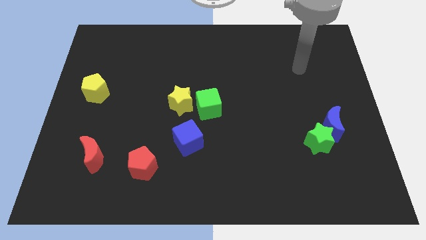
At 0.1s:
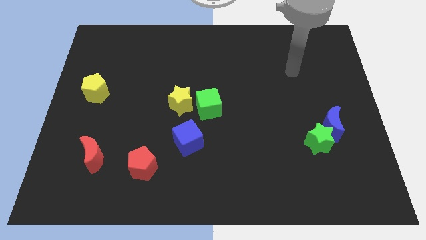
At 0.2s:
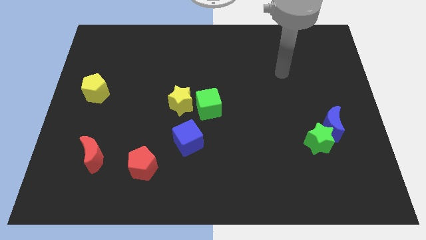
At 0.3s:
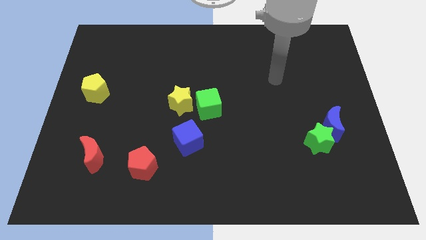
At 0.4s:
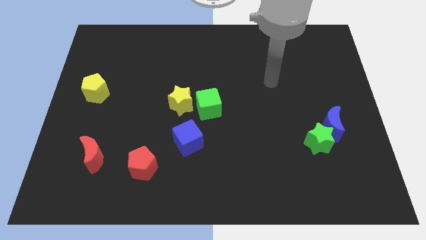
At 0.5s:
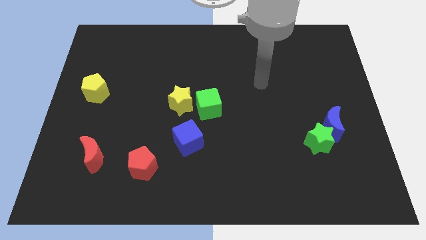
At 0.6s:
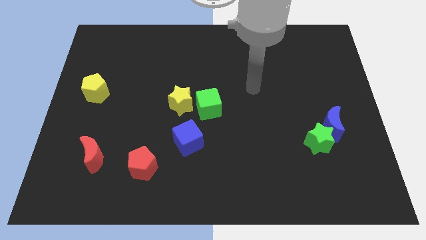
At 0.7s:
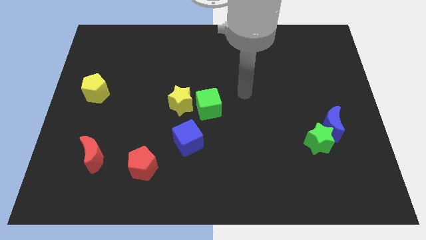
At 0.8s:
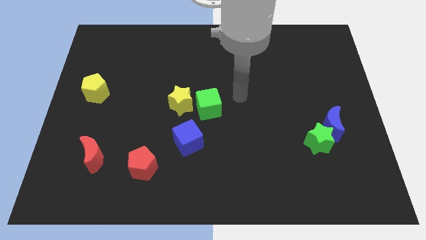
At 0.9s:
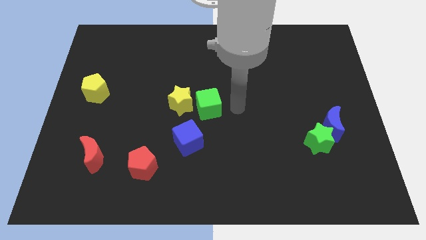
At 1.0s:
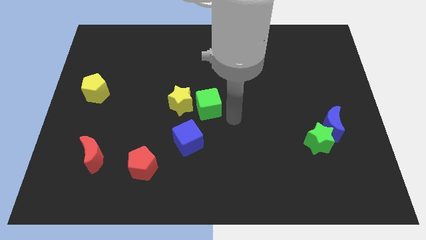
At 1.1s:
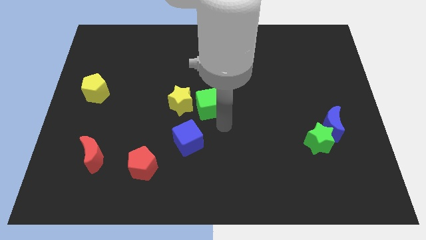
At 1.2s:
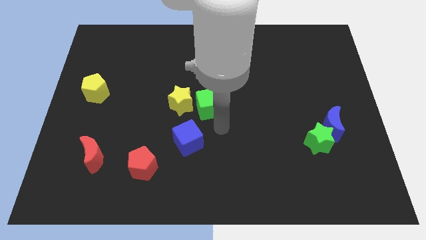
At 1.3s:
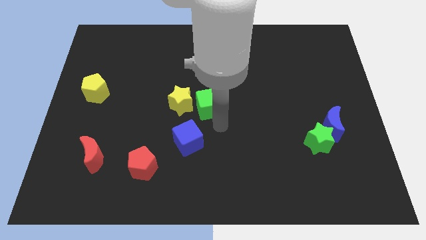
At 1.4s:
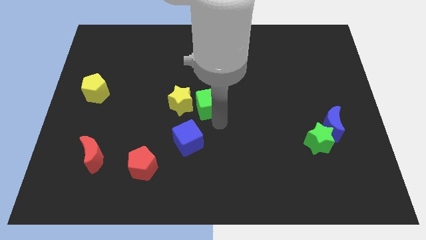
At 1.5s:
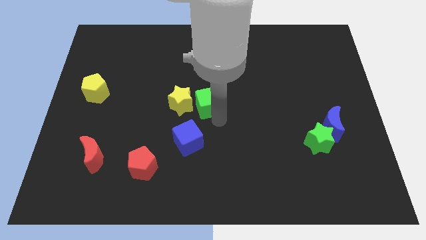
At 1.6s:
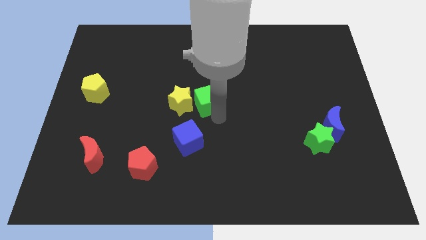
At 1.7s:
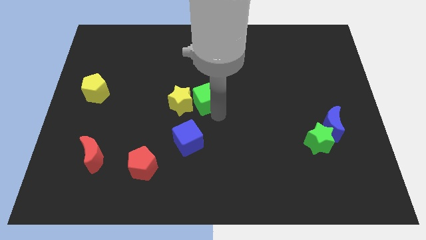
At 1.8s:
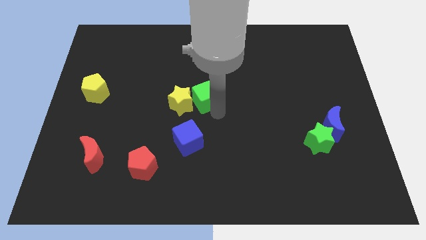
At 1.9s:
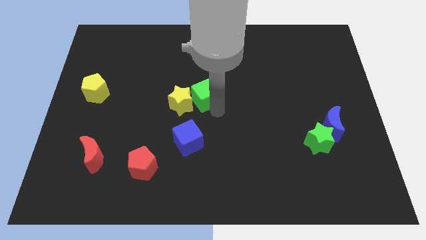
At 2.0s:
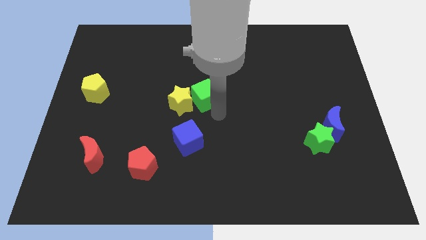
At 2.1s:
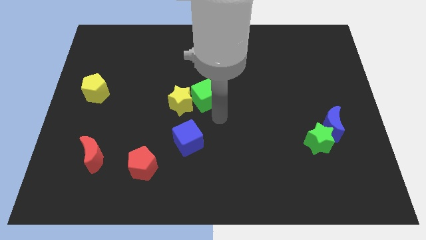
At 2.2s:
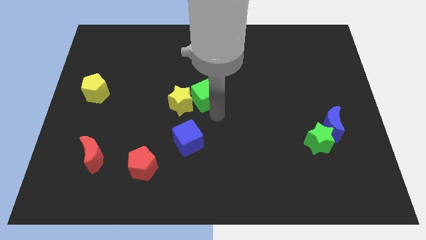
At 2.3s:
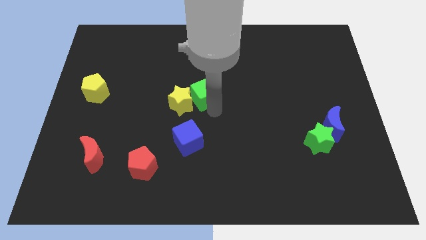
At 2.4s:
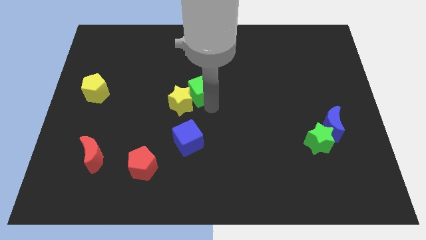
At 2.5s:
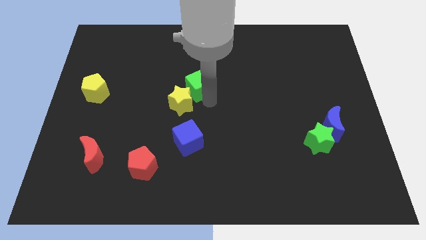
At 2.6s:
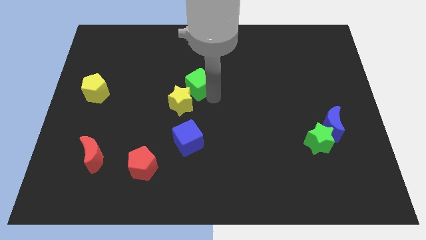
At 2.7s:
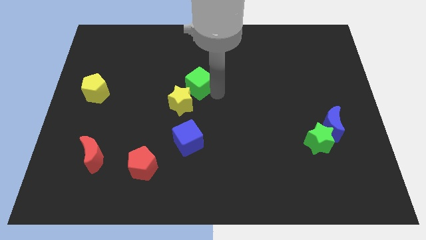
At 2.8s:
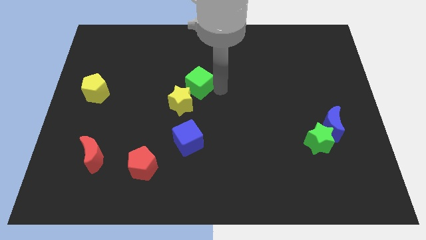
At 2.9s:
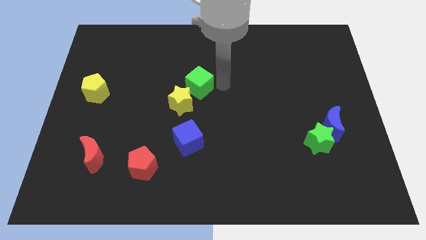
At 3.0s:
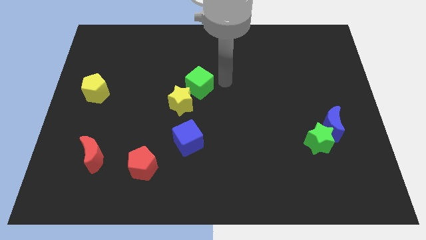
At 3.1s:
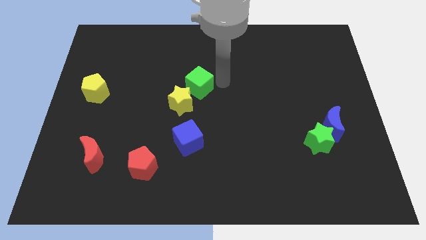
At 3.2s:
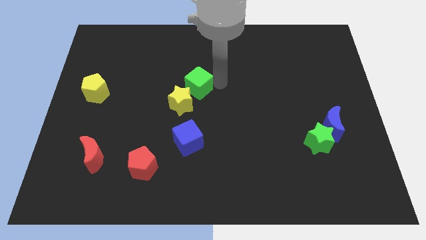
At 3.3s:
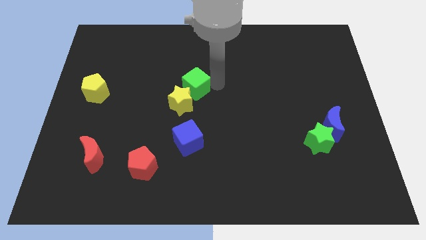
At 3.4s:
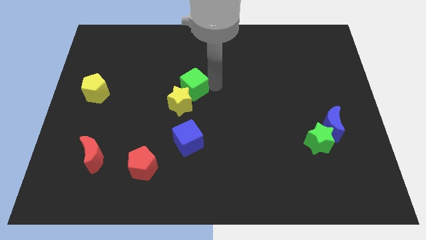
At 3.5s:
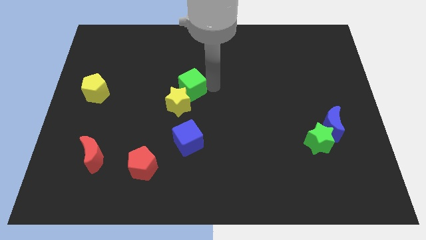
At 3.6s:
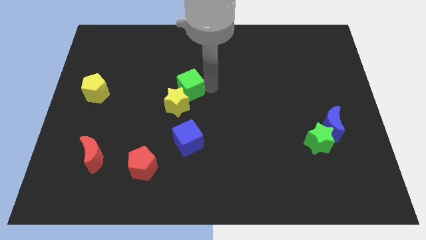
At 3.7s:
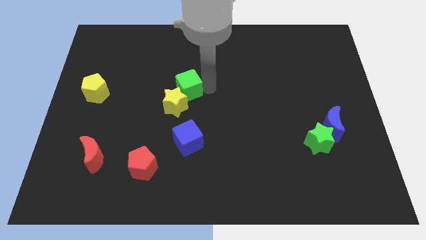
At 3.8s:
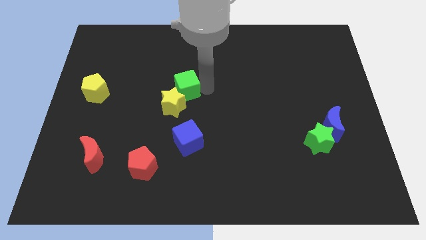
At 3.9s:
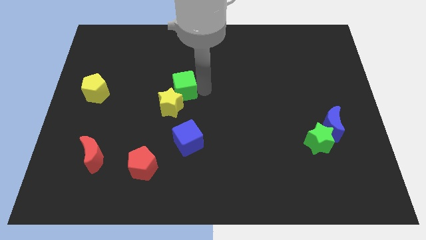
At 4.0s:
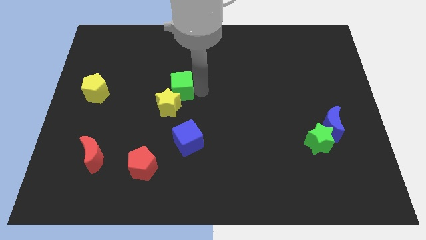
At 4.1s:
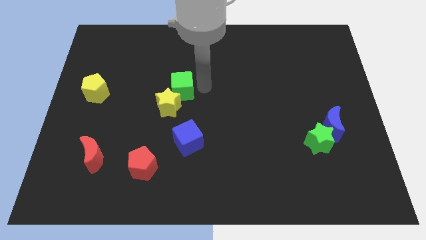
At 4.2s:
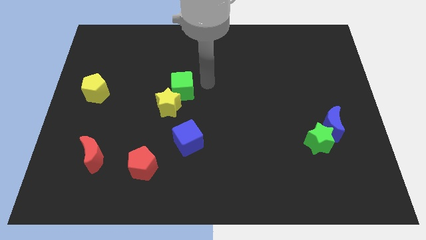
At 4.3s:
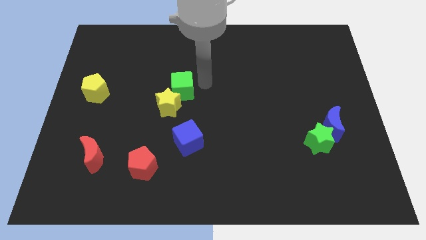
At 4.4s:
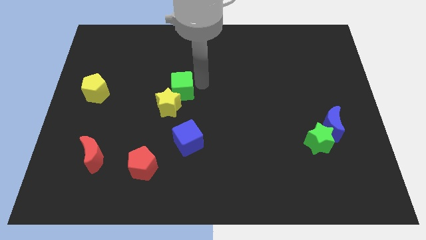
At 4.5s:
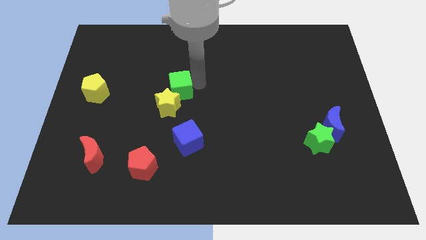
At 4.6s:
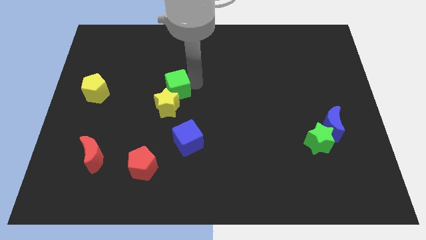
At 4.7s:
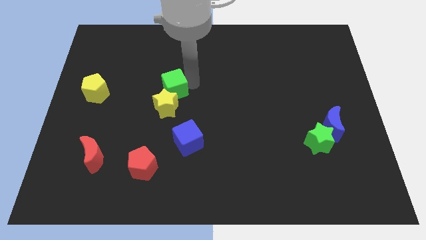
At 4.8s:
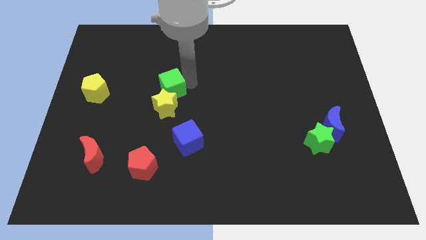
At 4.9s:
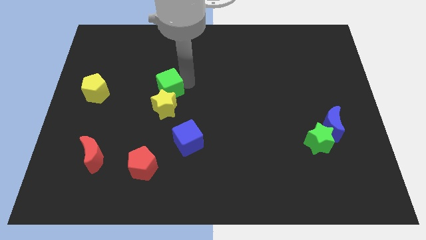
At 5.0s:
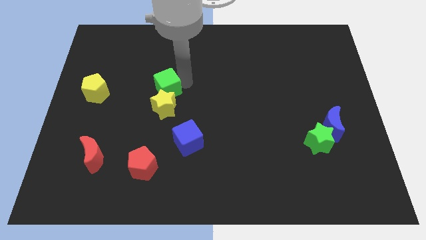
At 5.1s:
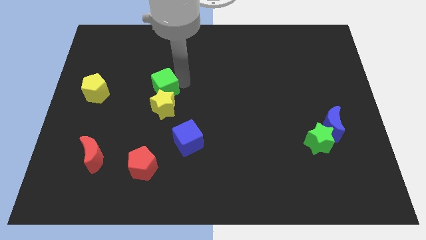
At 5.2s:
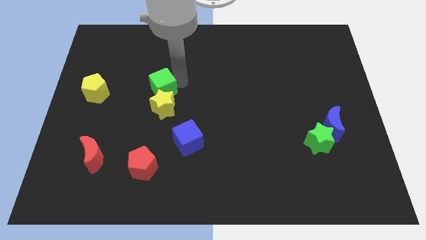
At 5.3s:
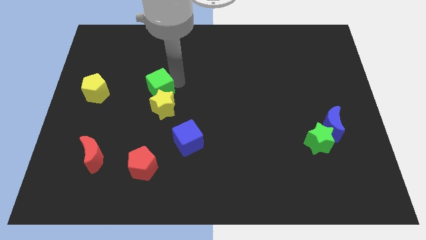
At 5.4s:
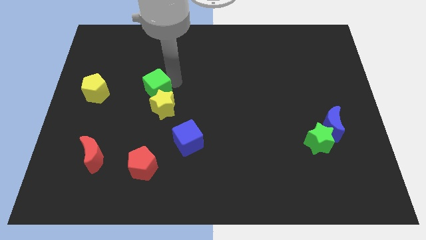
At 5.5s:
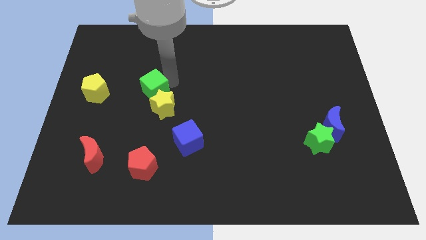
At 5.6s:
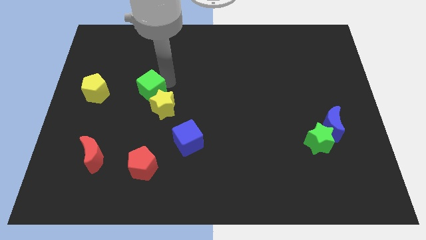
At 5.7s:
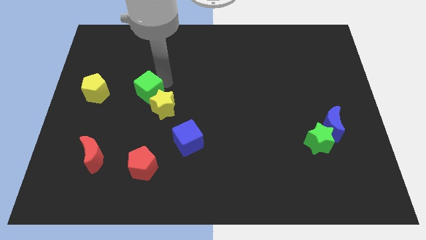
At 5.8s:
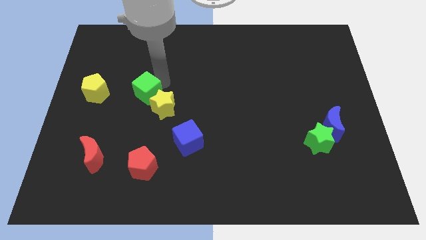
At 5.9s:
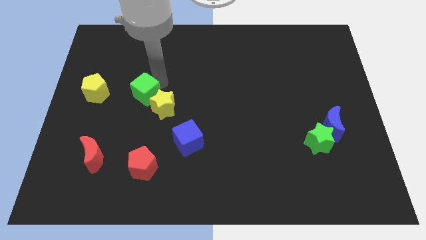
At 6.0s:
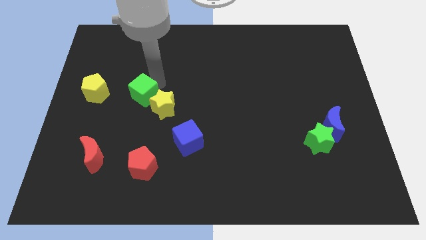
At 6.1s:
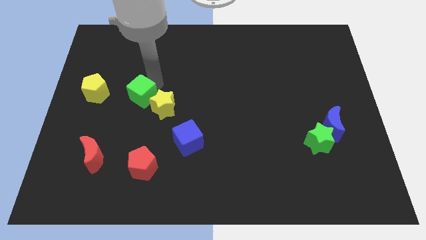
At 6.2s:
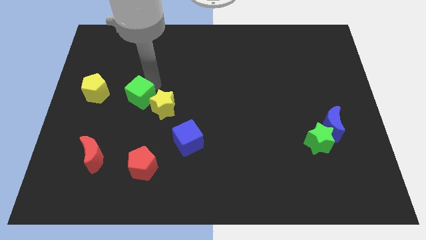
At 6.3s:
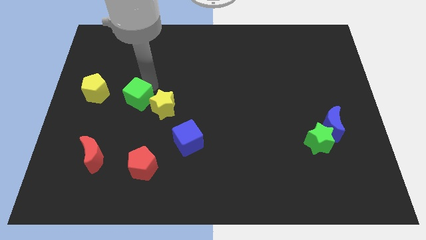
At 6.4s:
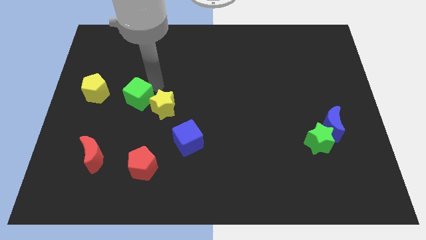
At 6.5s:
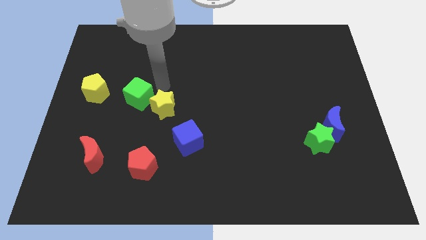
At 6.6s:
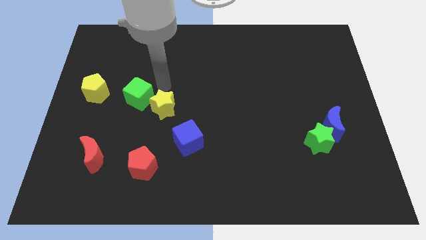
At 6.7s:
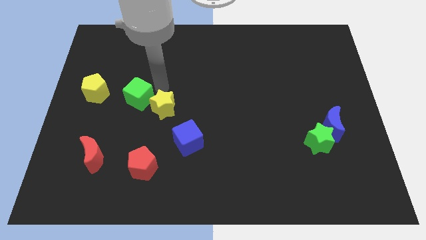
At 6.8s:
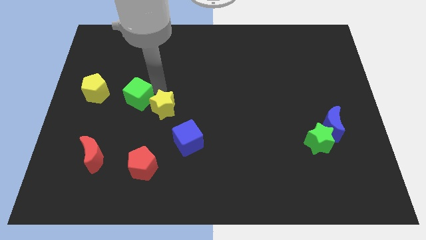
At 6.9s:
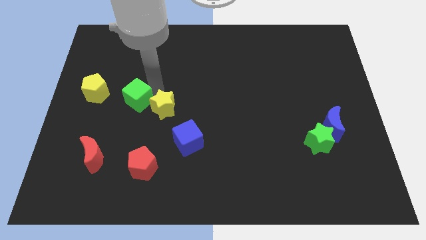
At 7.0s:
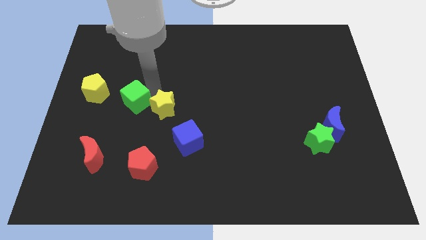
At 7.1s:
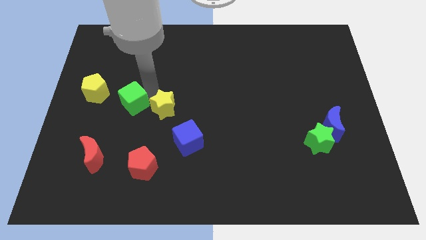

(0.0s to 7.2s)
put the green cube diagonally down and to the right of the yellow pentagon

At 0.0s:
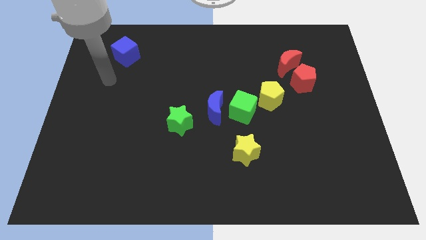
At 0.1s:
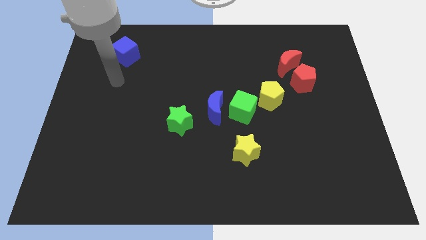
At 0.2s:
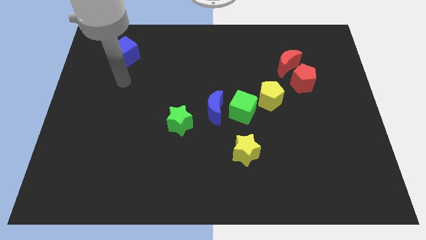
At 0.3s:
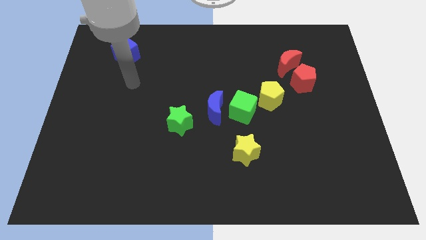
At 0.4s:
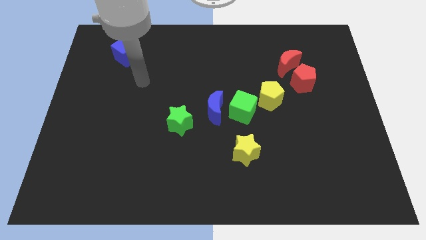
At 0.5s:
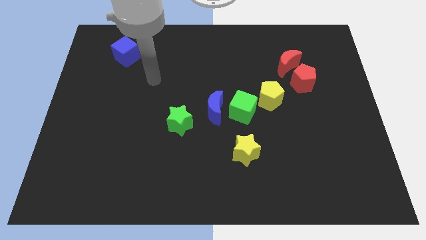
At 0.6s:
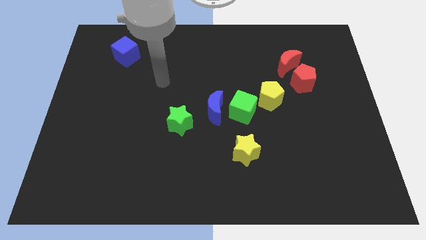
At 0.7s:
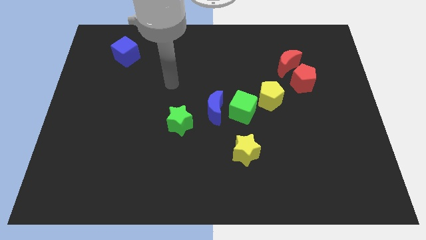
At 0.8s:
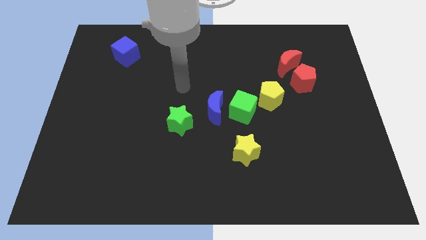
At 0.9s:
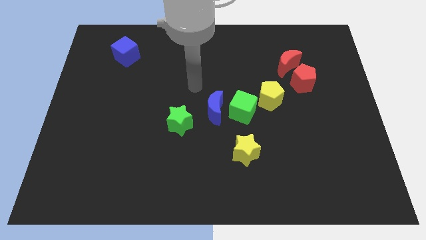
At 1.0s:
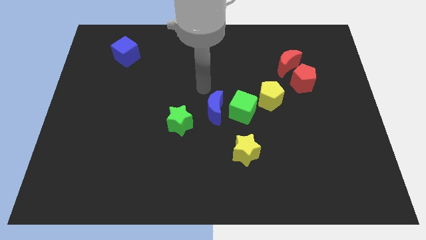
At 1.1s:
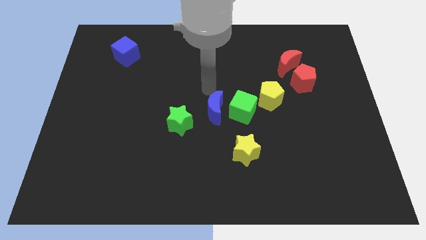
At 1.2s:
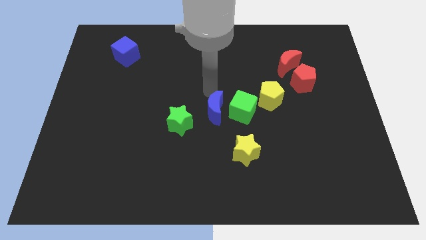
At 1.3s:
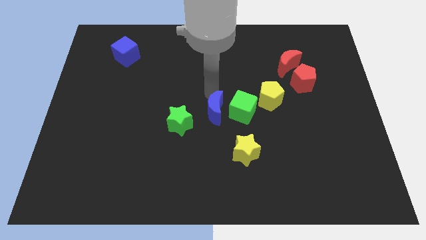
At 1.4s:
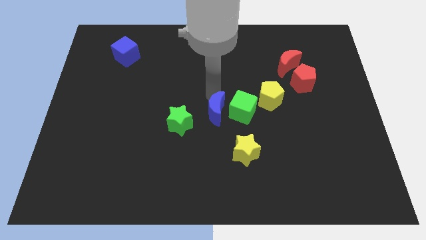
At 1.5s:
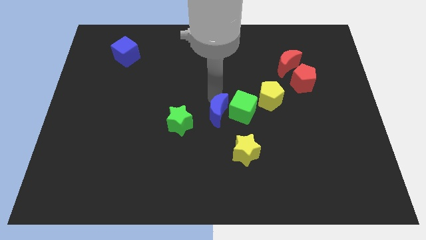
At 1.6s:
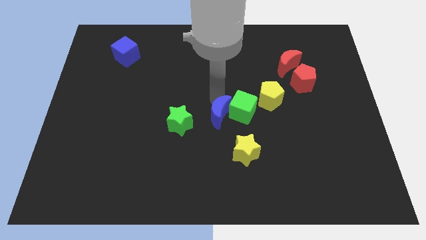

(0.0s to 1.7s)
move the blue moon to the top left of the yellow star
